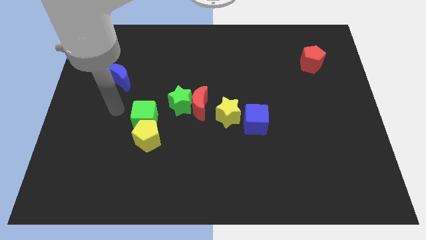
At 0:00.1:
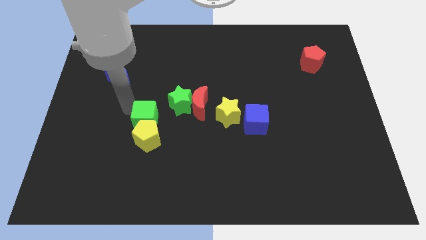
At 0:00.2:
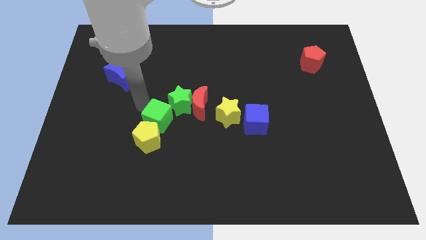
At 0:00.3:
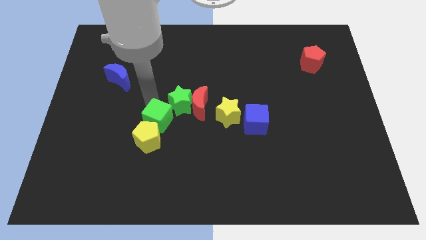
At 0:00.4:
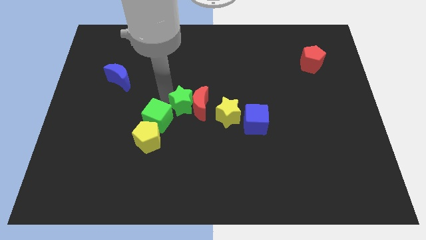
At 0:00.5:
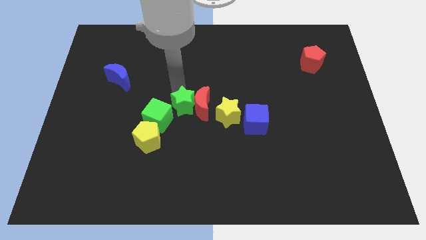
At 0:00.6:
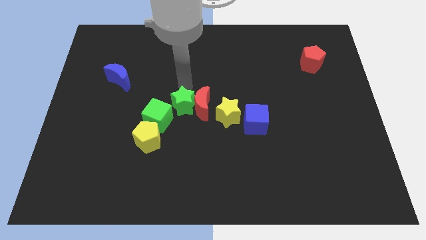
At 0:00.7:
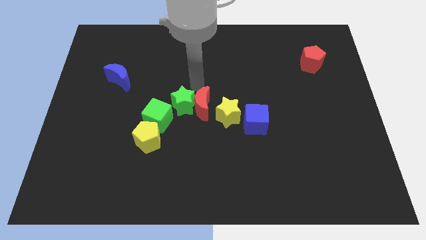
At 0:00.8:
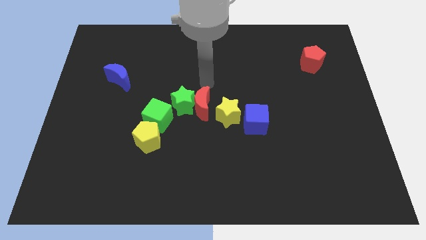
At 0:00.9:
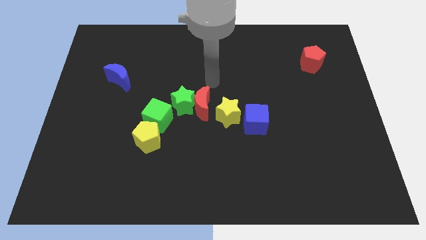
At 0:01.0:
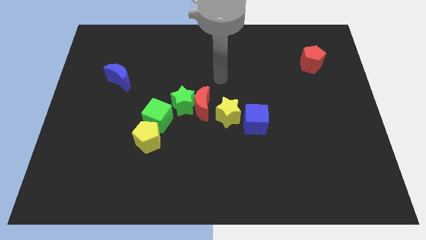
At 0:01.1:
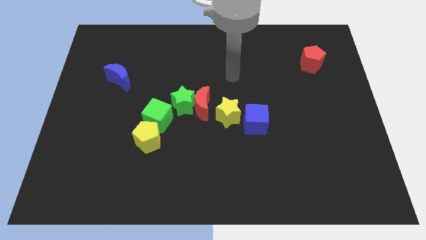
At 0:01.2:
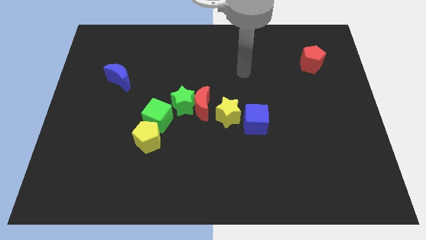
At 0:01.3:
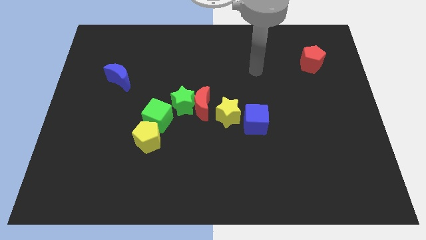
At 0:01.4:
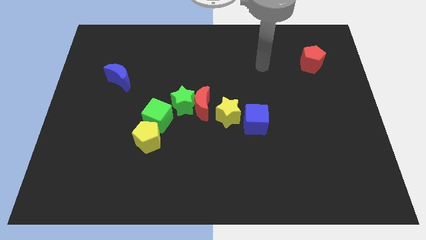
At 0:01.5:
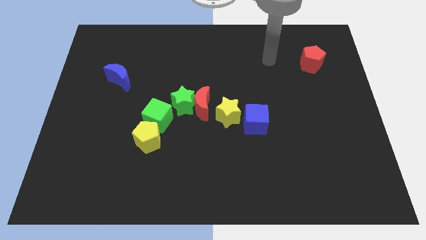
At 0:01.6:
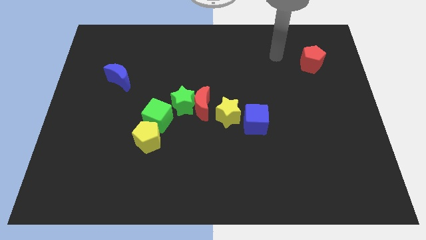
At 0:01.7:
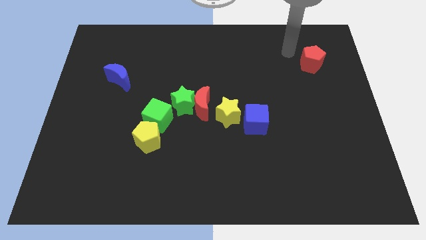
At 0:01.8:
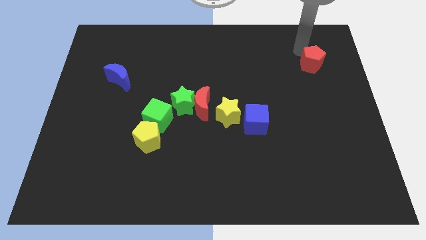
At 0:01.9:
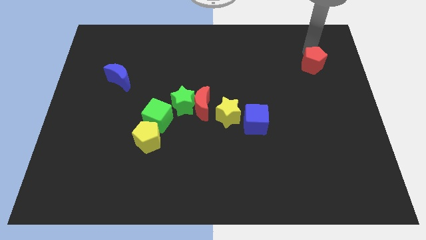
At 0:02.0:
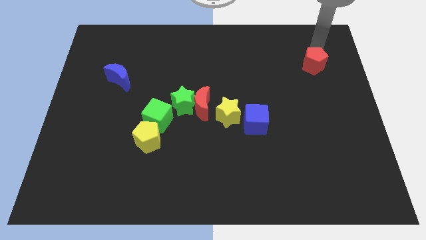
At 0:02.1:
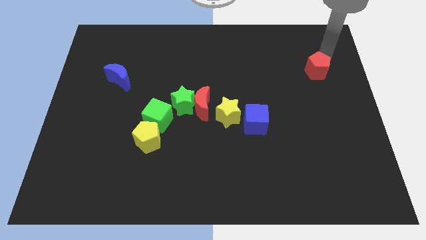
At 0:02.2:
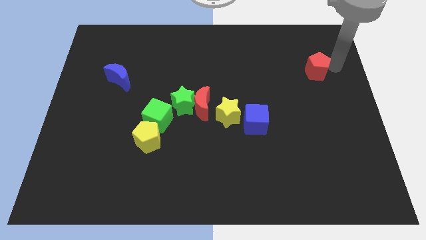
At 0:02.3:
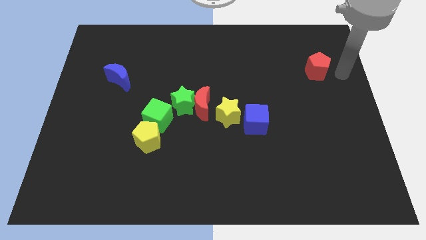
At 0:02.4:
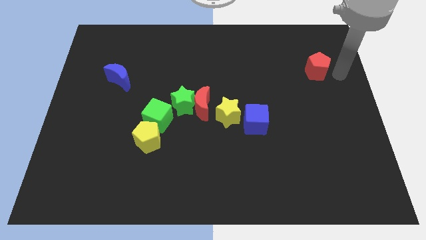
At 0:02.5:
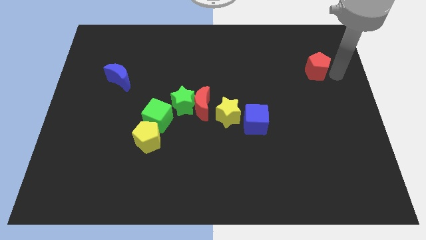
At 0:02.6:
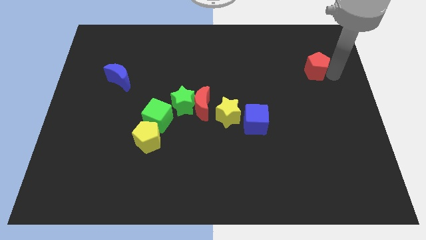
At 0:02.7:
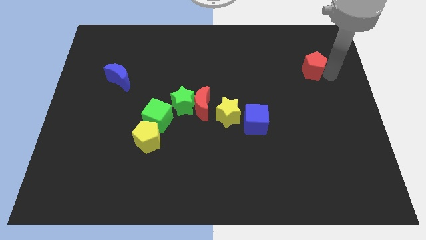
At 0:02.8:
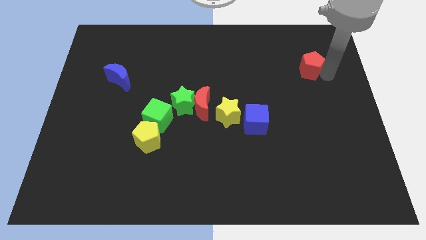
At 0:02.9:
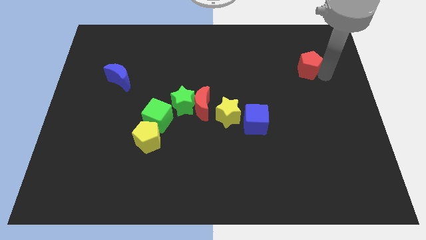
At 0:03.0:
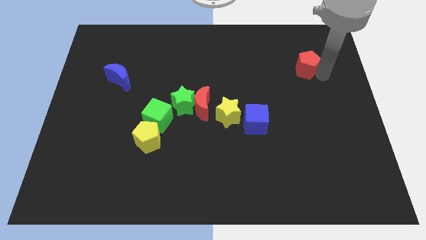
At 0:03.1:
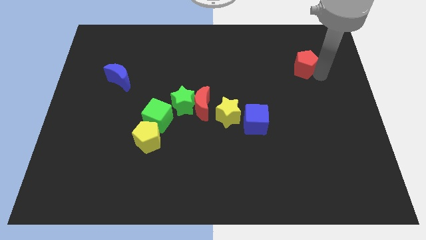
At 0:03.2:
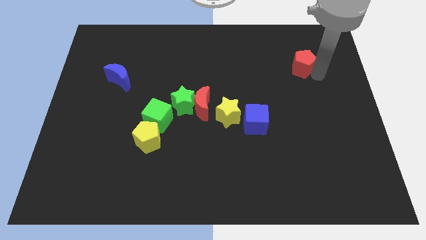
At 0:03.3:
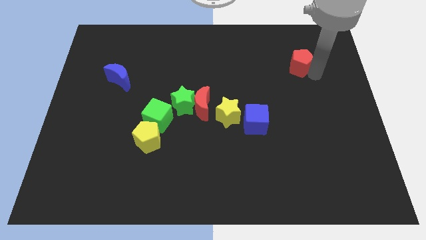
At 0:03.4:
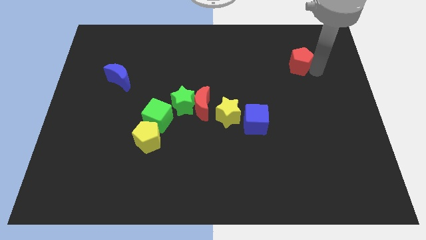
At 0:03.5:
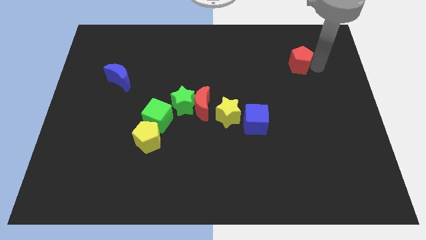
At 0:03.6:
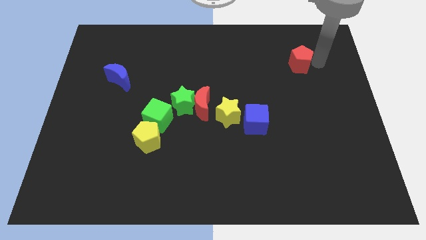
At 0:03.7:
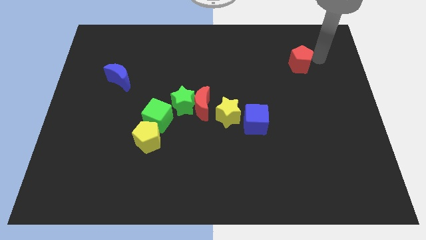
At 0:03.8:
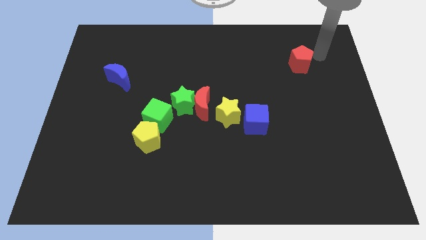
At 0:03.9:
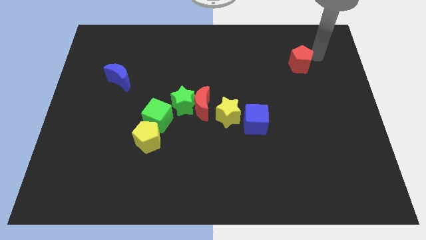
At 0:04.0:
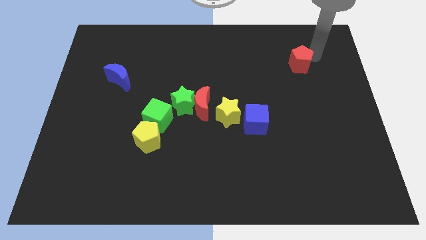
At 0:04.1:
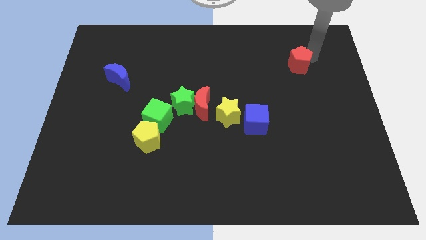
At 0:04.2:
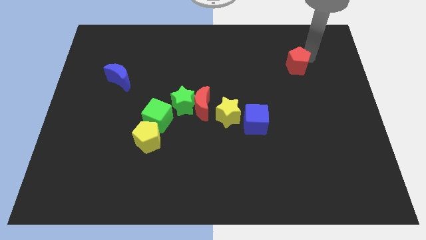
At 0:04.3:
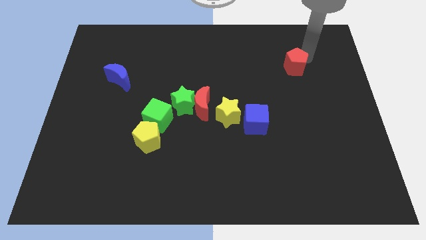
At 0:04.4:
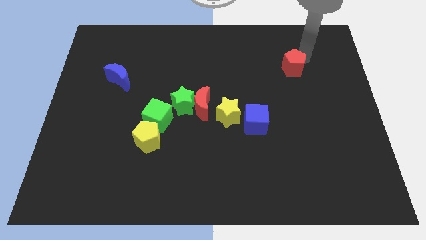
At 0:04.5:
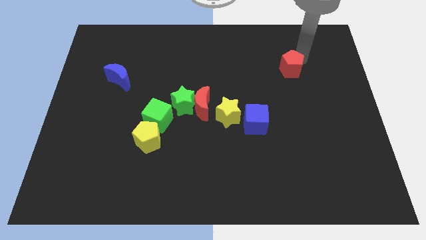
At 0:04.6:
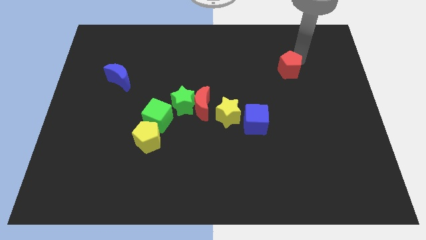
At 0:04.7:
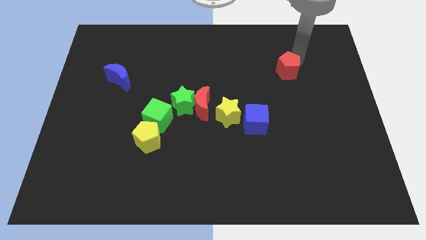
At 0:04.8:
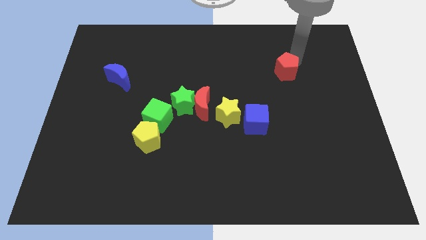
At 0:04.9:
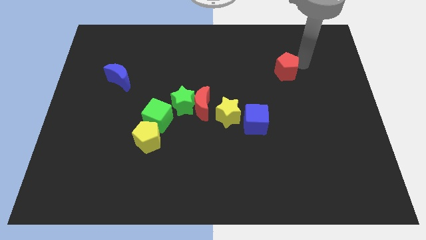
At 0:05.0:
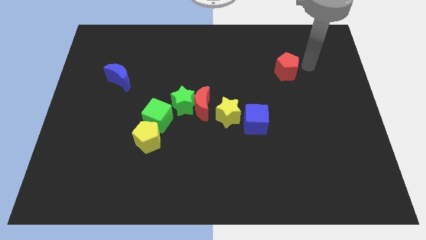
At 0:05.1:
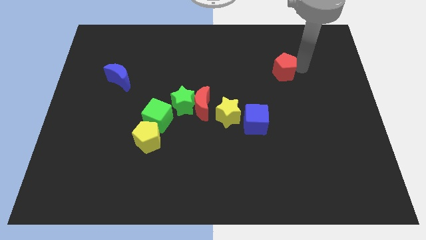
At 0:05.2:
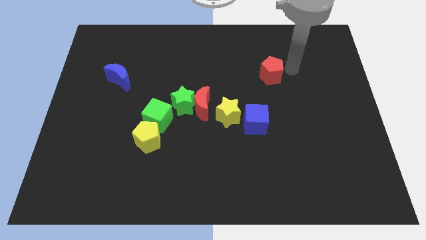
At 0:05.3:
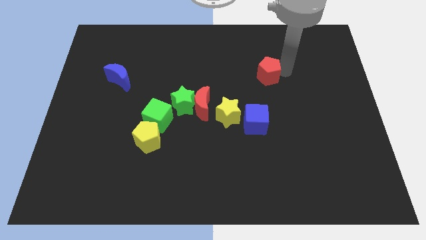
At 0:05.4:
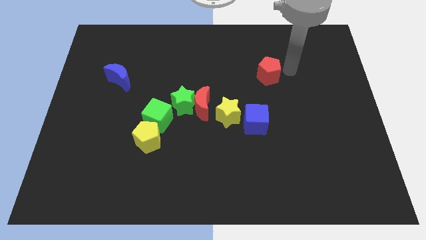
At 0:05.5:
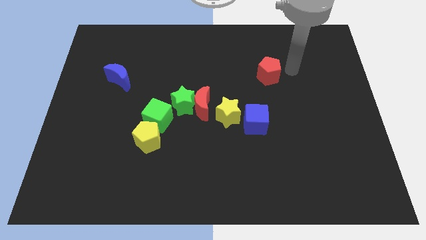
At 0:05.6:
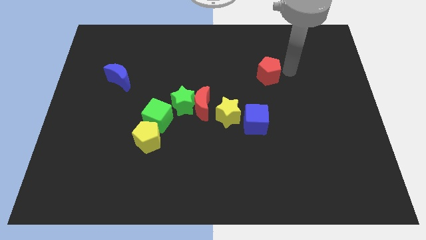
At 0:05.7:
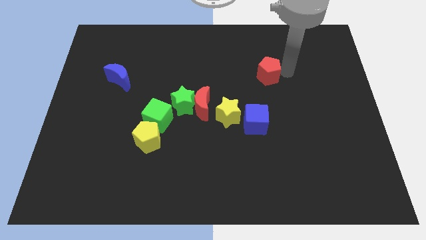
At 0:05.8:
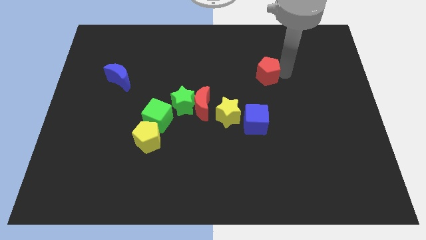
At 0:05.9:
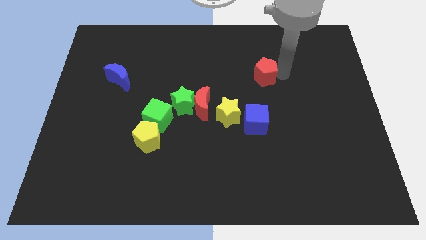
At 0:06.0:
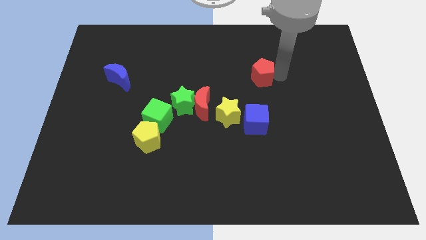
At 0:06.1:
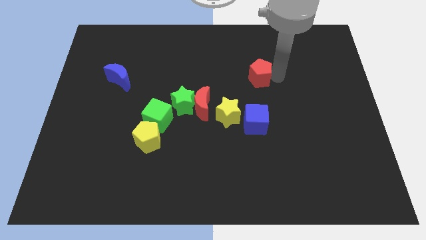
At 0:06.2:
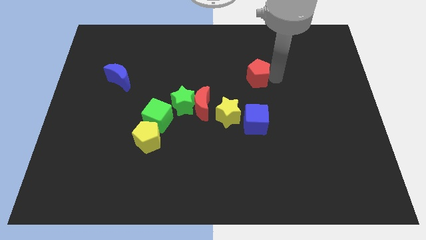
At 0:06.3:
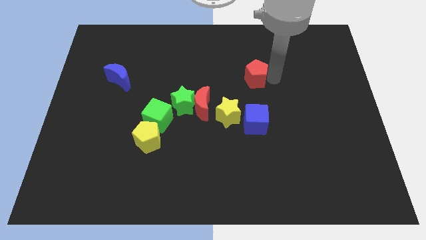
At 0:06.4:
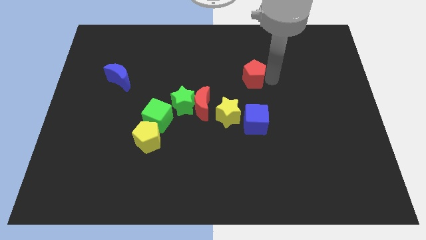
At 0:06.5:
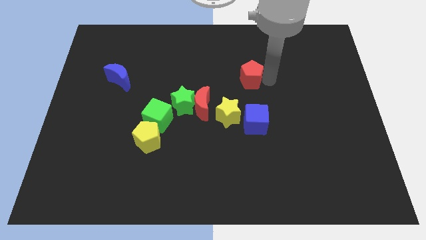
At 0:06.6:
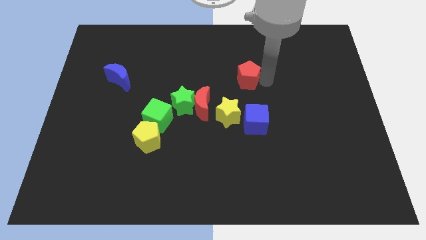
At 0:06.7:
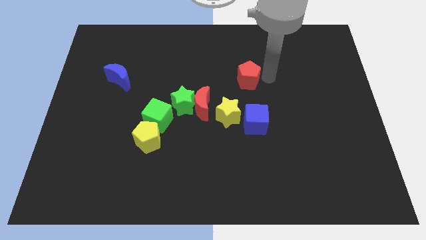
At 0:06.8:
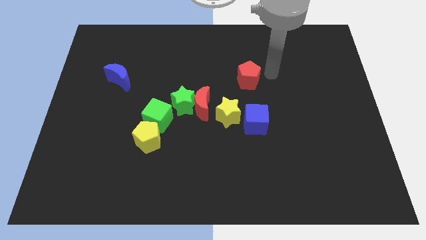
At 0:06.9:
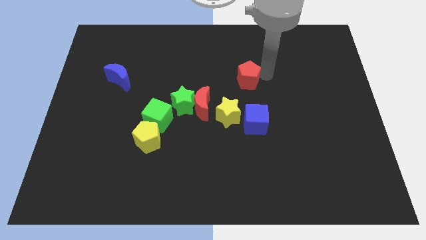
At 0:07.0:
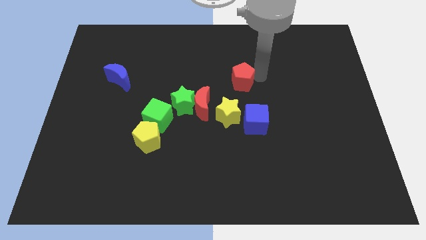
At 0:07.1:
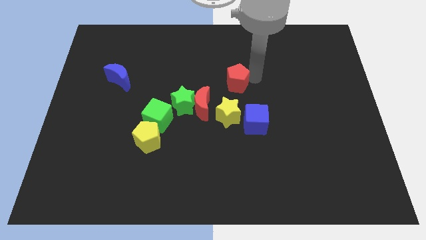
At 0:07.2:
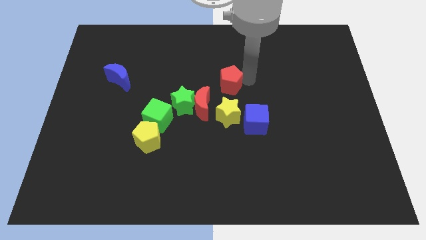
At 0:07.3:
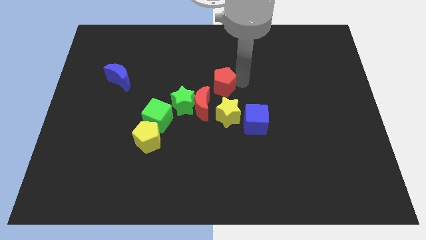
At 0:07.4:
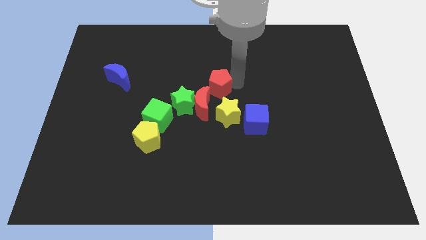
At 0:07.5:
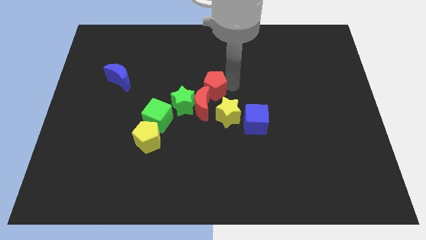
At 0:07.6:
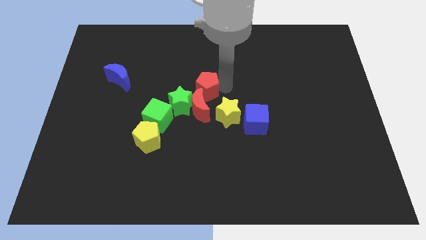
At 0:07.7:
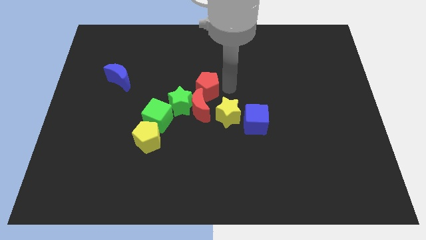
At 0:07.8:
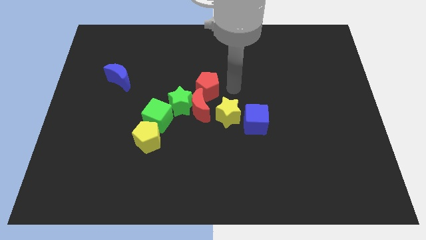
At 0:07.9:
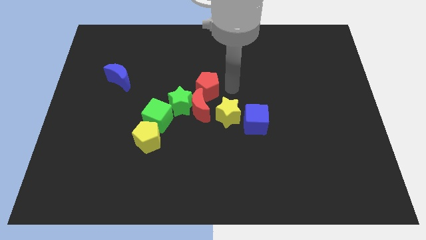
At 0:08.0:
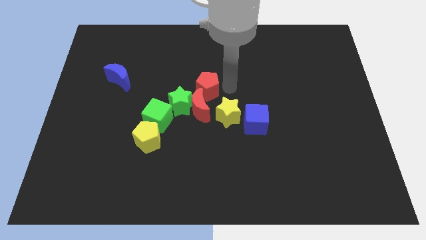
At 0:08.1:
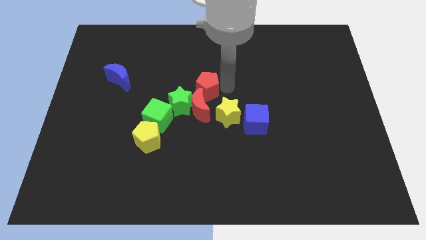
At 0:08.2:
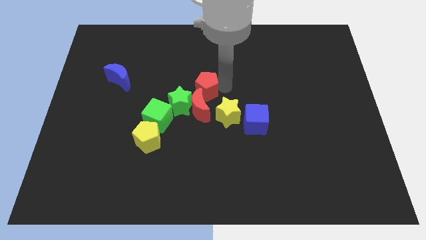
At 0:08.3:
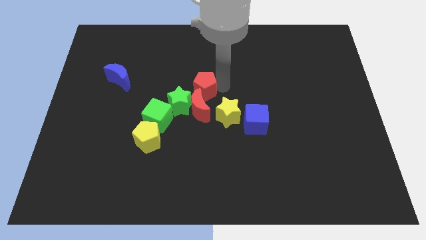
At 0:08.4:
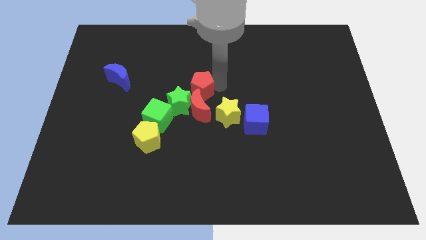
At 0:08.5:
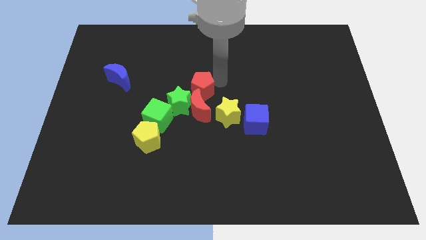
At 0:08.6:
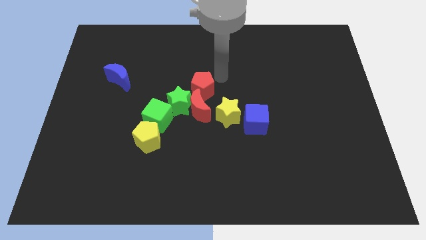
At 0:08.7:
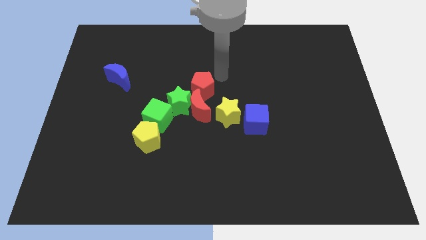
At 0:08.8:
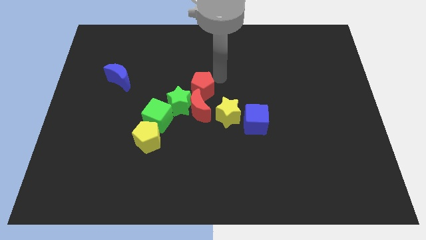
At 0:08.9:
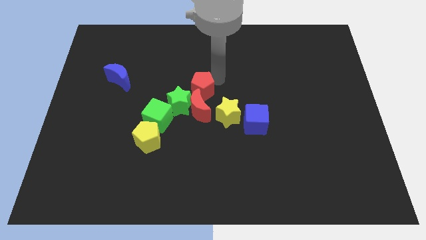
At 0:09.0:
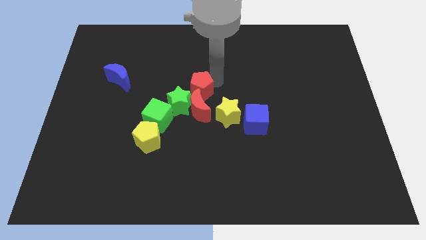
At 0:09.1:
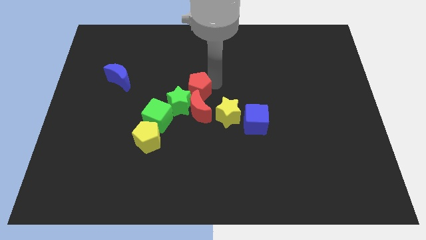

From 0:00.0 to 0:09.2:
slide the red pentagon next to the green star
